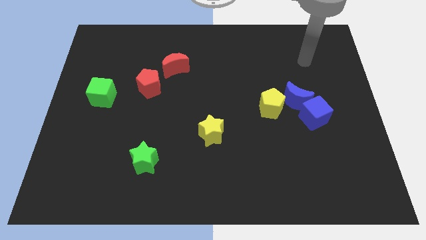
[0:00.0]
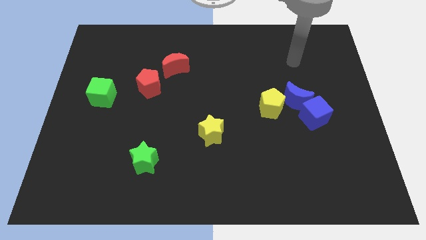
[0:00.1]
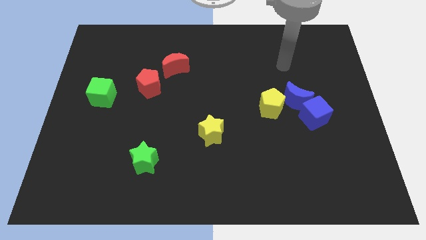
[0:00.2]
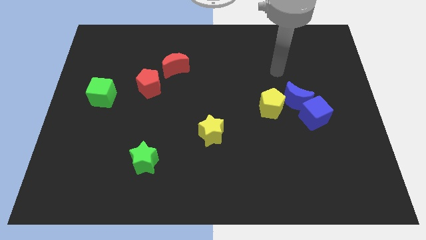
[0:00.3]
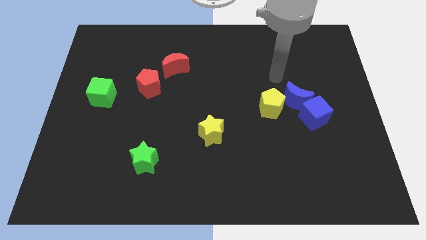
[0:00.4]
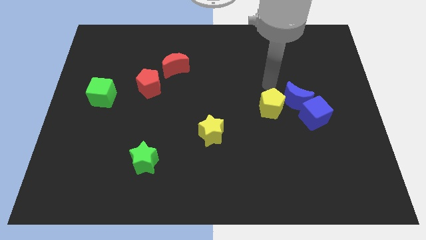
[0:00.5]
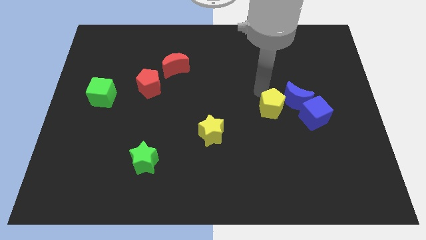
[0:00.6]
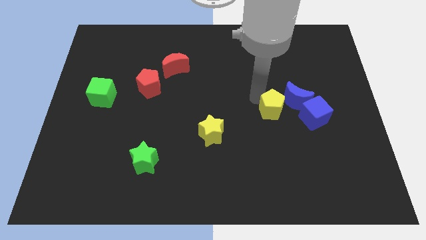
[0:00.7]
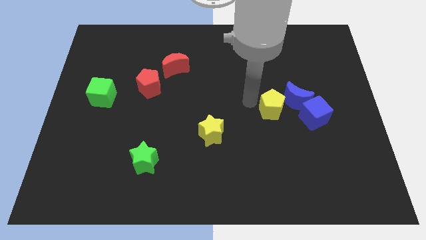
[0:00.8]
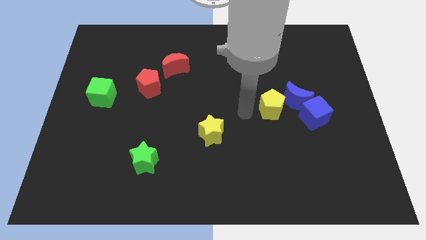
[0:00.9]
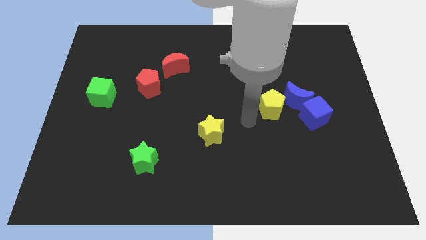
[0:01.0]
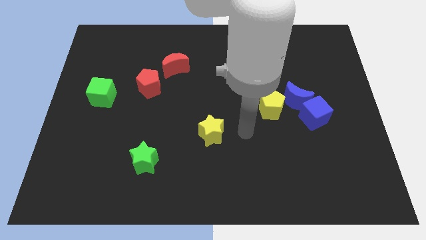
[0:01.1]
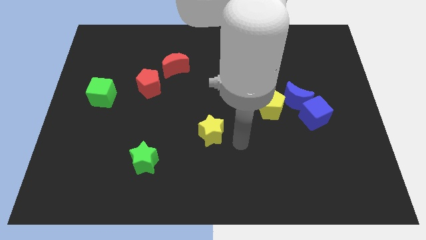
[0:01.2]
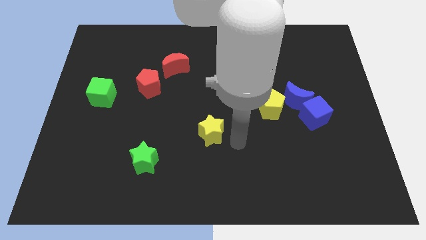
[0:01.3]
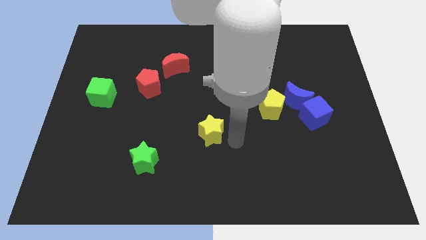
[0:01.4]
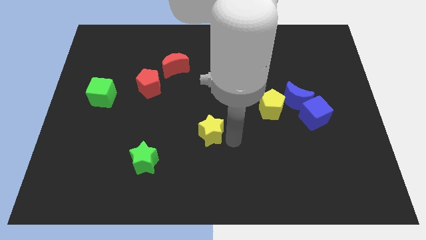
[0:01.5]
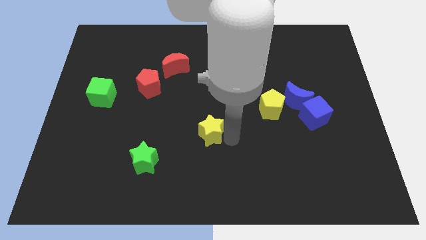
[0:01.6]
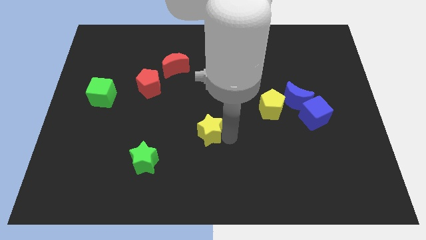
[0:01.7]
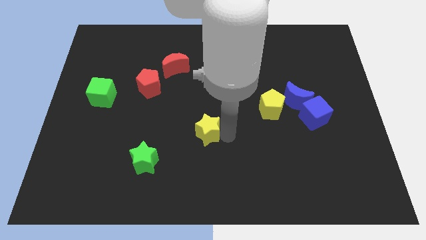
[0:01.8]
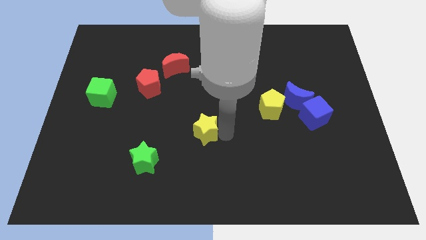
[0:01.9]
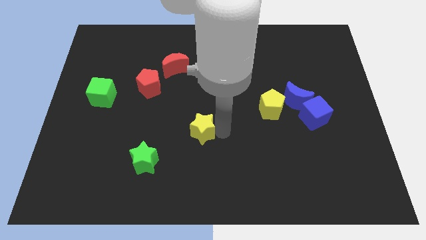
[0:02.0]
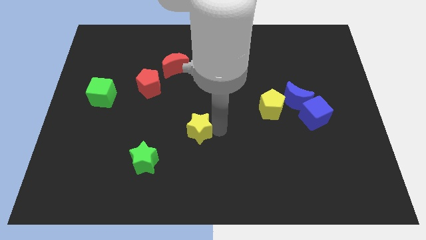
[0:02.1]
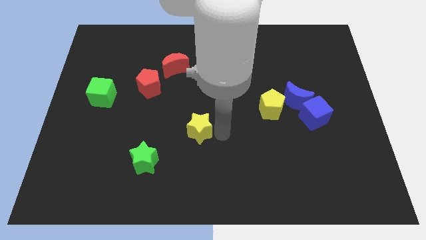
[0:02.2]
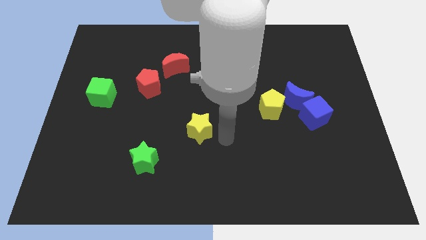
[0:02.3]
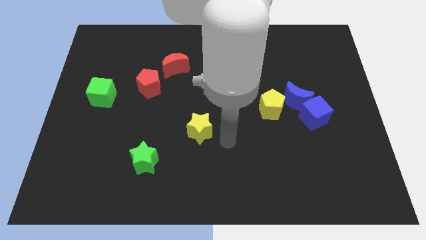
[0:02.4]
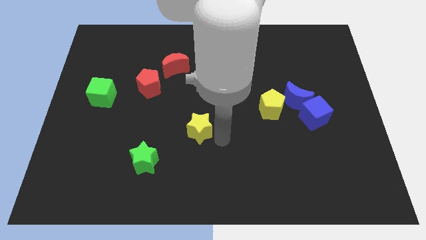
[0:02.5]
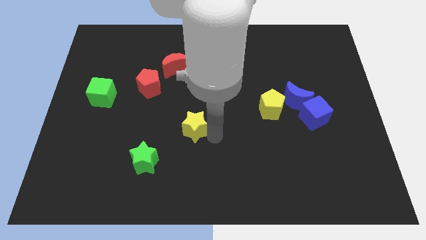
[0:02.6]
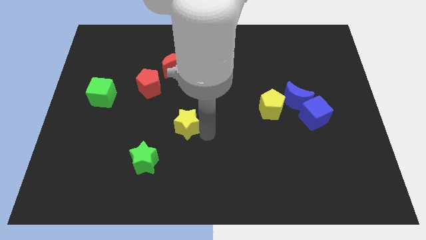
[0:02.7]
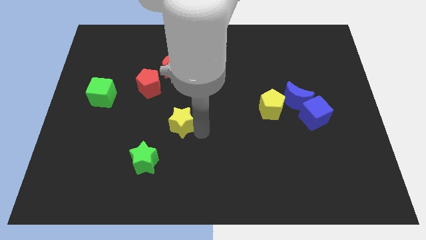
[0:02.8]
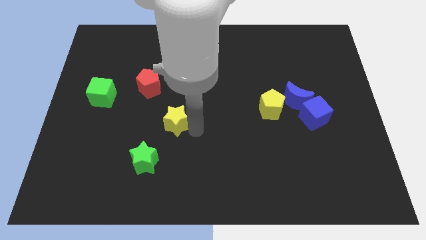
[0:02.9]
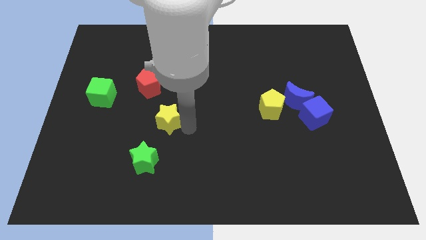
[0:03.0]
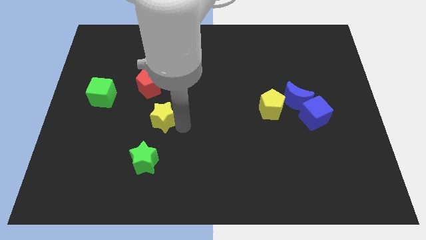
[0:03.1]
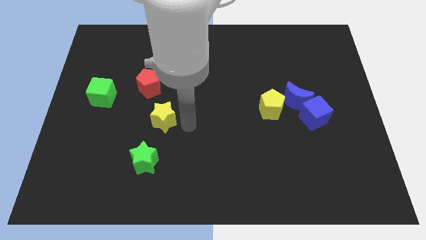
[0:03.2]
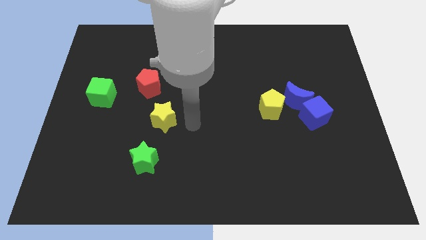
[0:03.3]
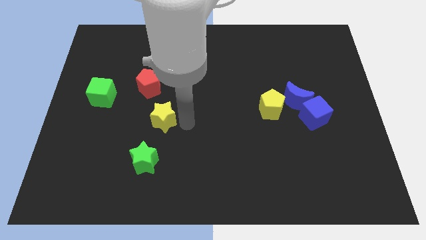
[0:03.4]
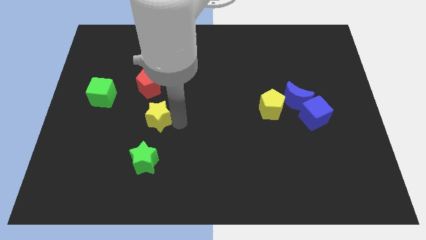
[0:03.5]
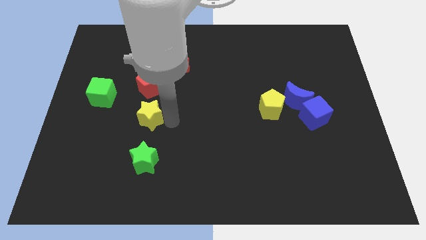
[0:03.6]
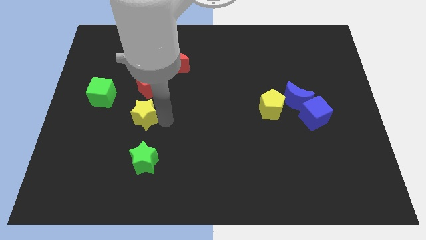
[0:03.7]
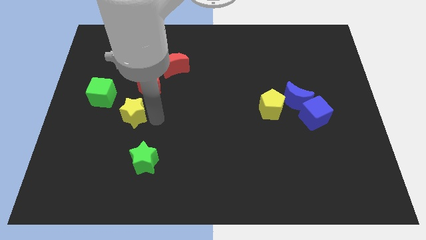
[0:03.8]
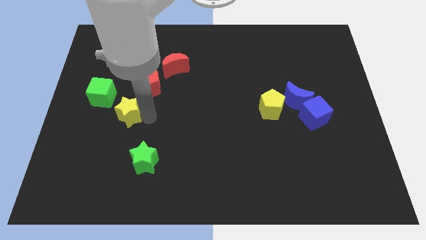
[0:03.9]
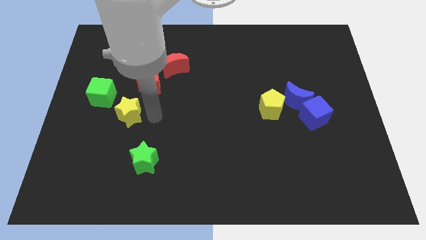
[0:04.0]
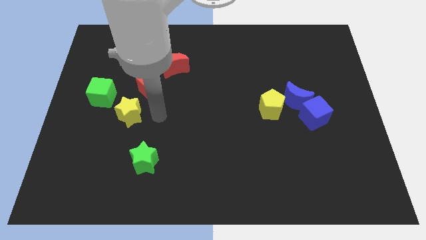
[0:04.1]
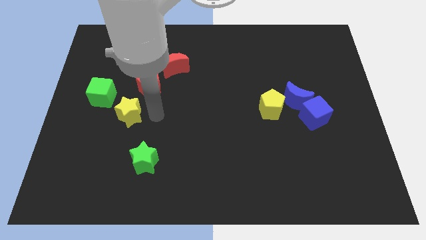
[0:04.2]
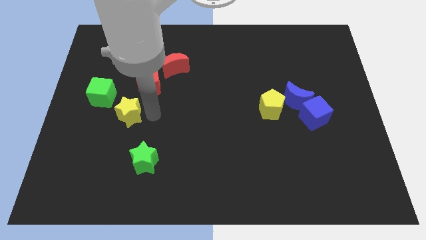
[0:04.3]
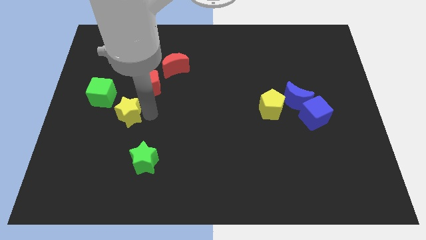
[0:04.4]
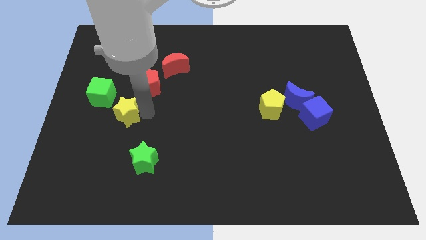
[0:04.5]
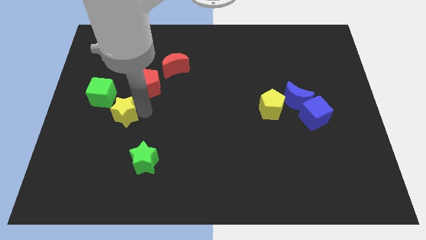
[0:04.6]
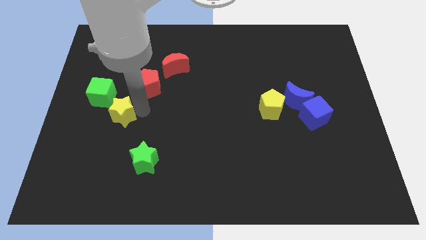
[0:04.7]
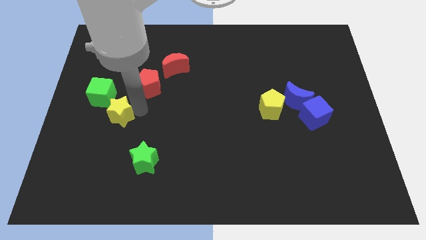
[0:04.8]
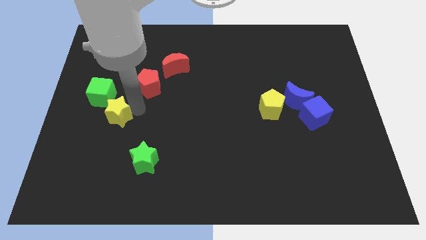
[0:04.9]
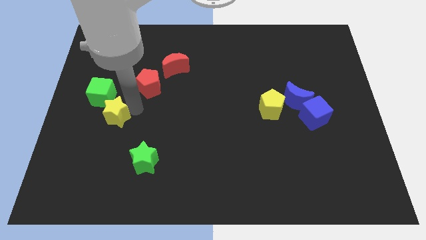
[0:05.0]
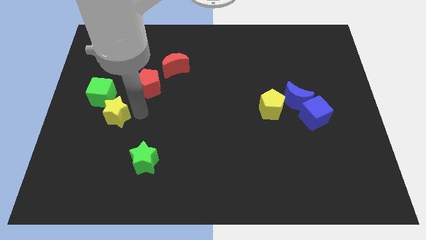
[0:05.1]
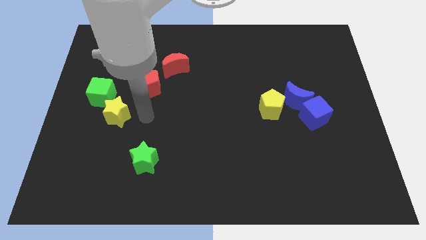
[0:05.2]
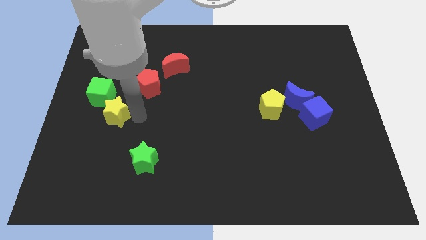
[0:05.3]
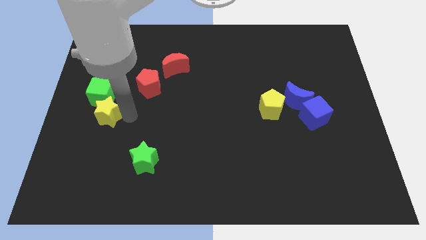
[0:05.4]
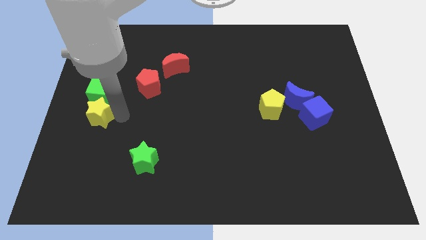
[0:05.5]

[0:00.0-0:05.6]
put the yellow star to the left side

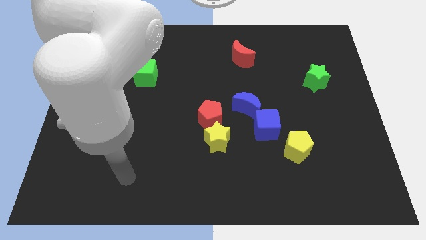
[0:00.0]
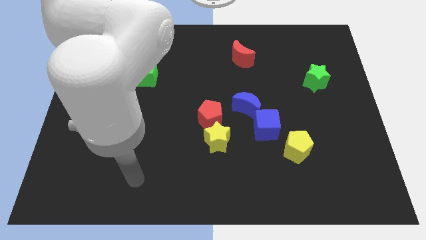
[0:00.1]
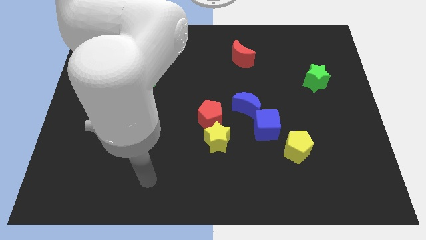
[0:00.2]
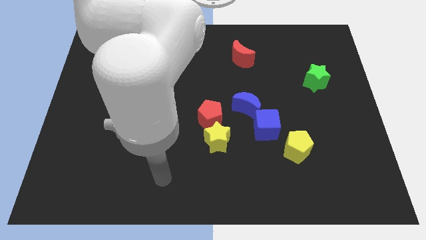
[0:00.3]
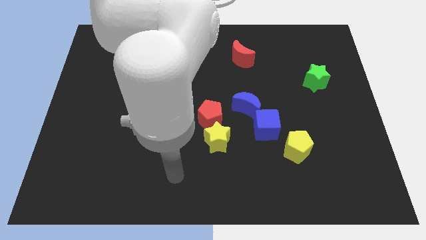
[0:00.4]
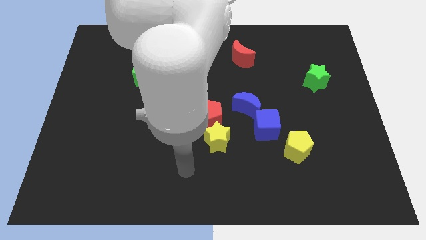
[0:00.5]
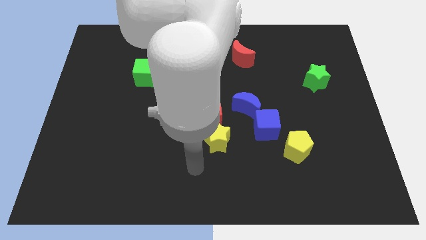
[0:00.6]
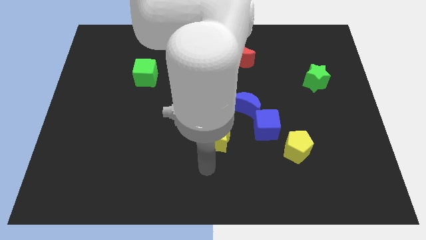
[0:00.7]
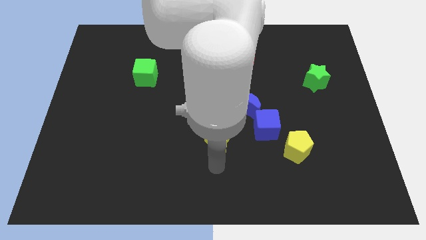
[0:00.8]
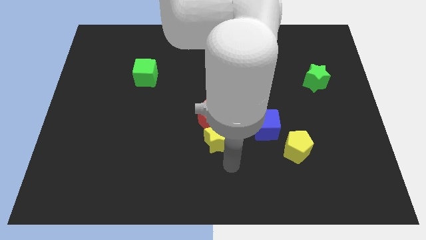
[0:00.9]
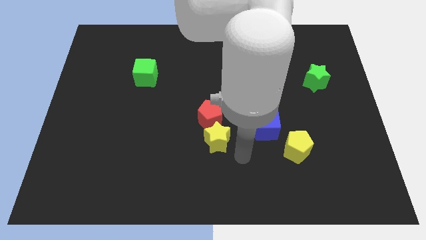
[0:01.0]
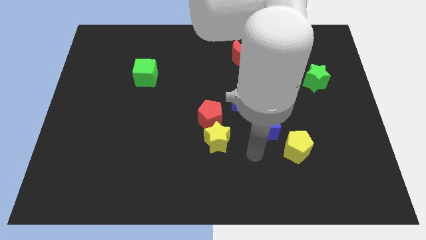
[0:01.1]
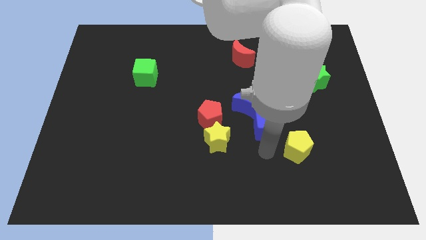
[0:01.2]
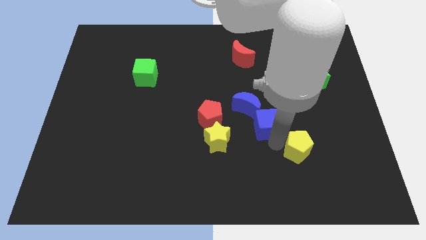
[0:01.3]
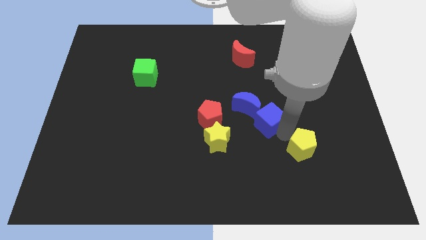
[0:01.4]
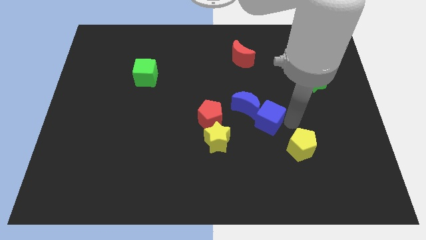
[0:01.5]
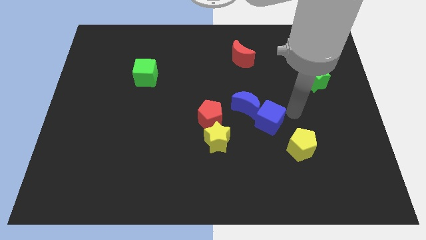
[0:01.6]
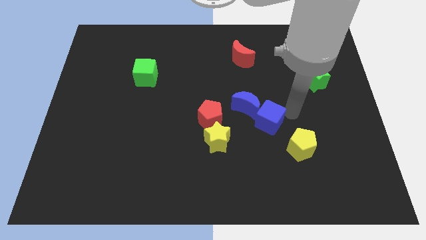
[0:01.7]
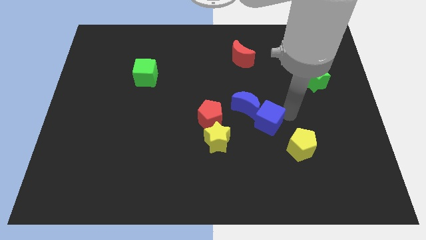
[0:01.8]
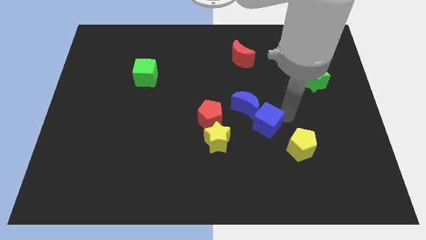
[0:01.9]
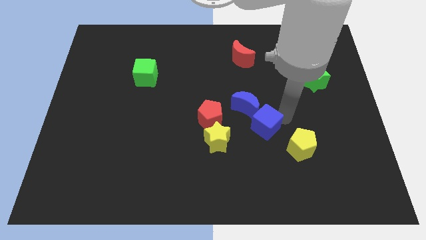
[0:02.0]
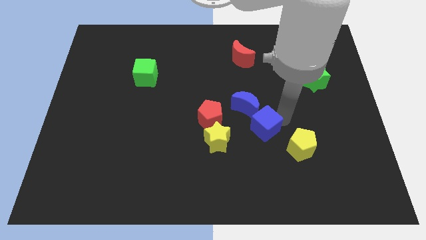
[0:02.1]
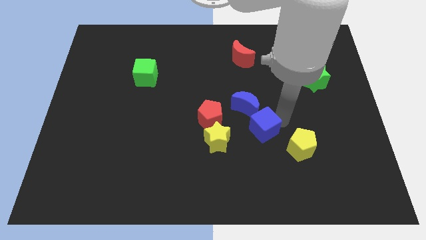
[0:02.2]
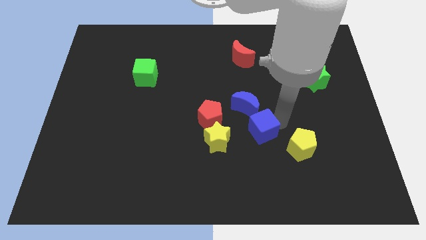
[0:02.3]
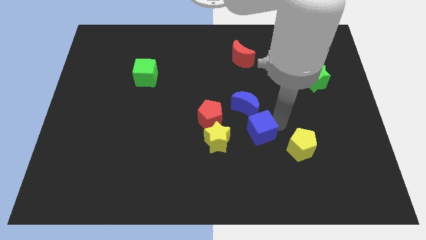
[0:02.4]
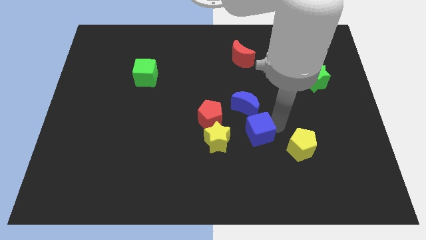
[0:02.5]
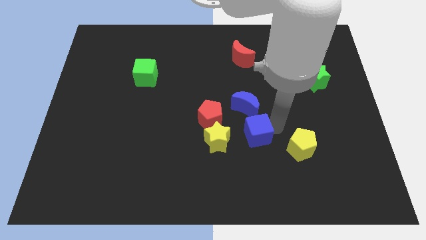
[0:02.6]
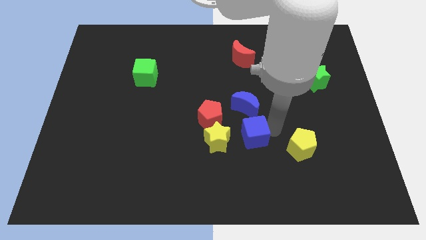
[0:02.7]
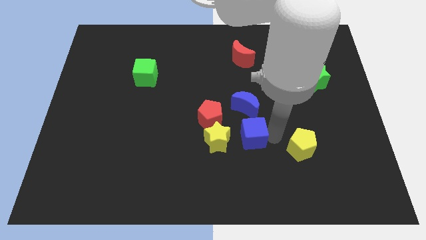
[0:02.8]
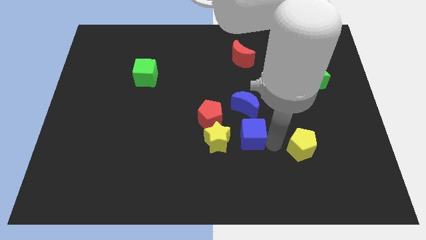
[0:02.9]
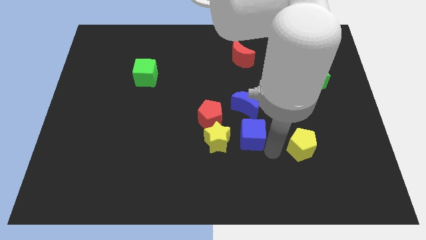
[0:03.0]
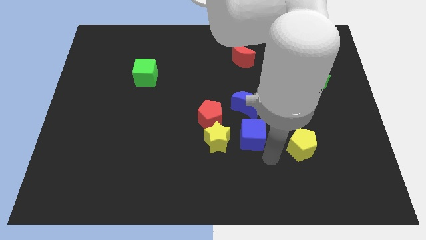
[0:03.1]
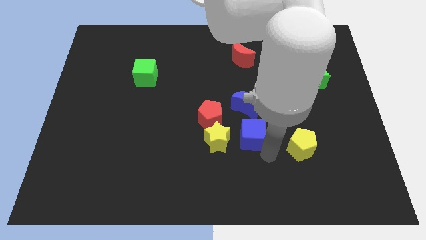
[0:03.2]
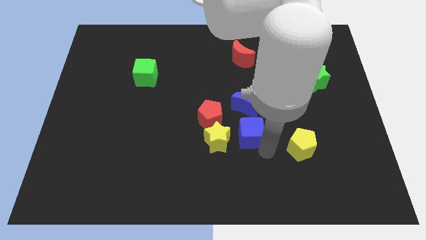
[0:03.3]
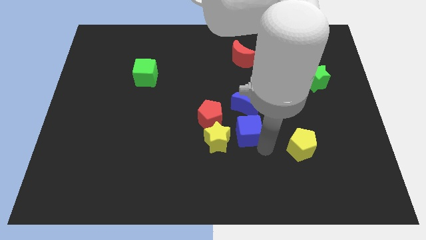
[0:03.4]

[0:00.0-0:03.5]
put the blue cube to the middle
